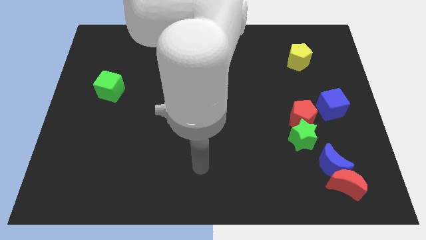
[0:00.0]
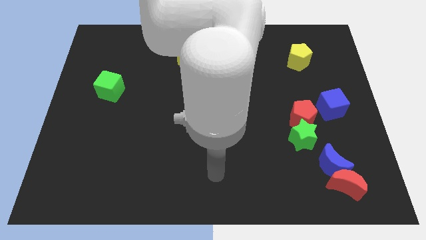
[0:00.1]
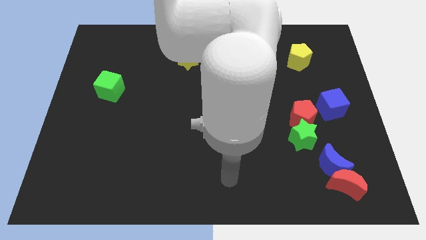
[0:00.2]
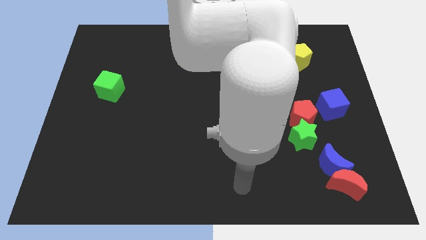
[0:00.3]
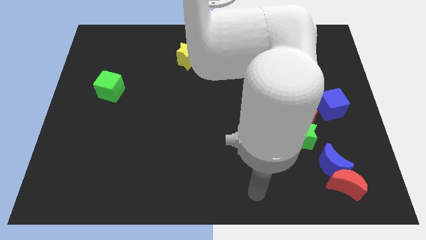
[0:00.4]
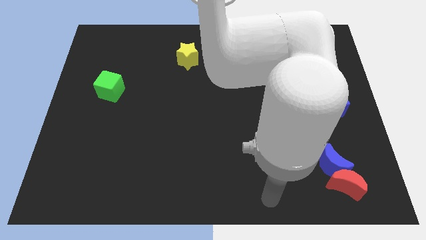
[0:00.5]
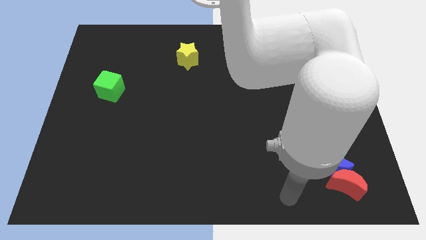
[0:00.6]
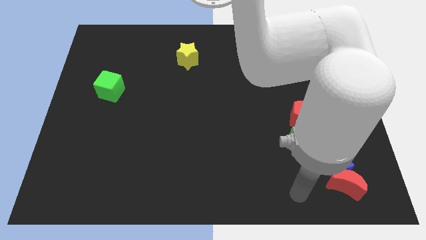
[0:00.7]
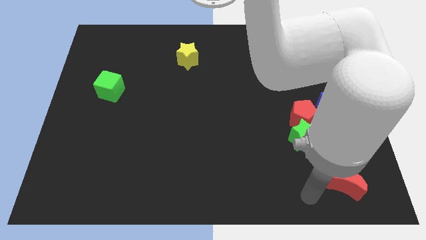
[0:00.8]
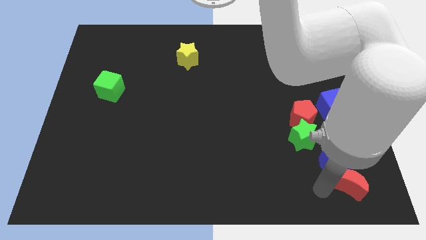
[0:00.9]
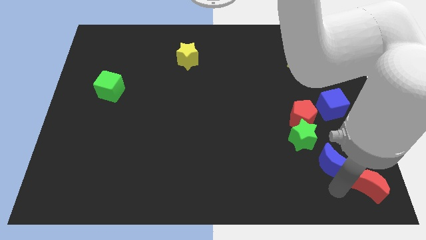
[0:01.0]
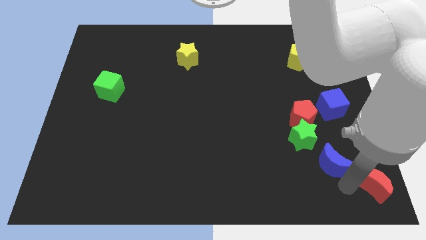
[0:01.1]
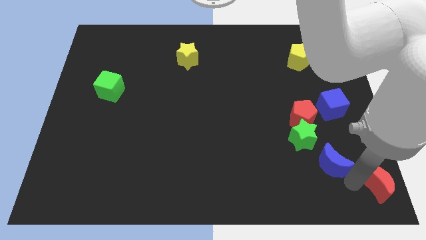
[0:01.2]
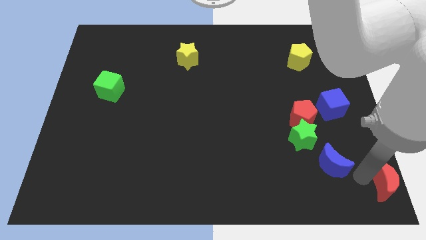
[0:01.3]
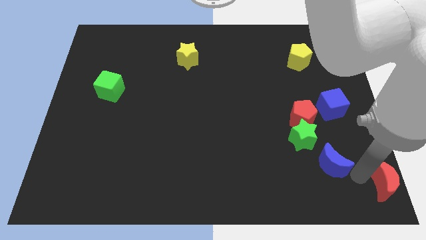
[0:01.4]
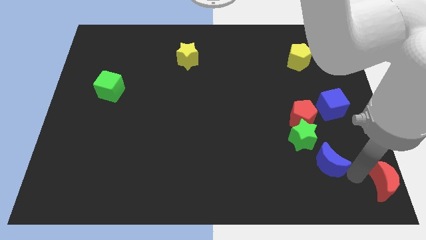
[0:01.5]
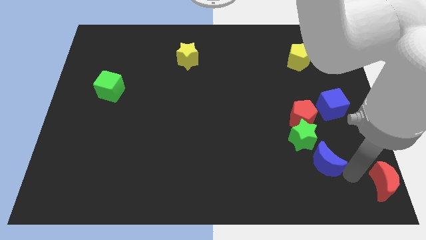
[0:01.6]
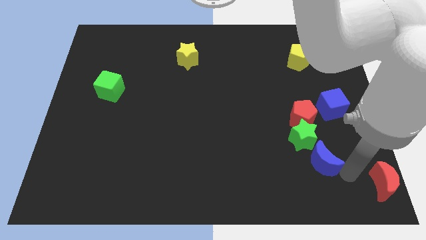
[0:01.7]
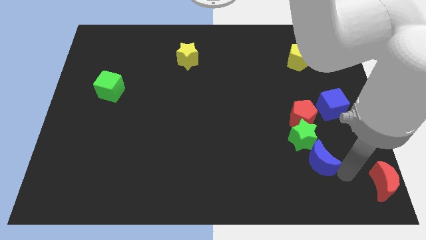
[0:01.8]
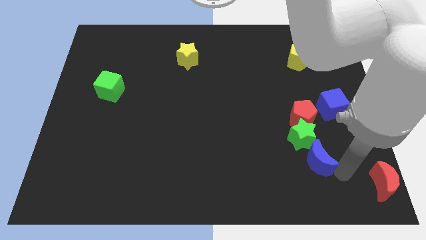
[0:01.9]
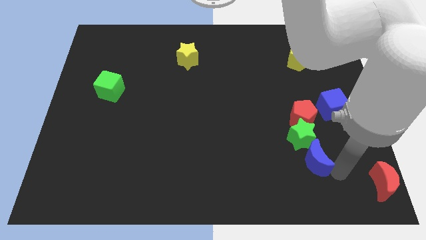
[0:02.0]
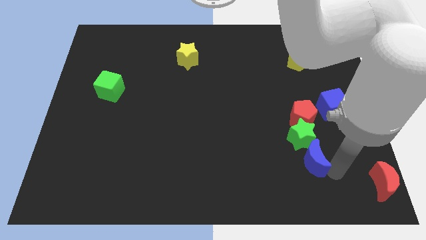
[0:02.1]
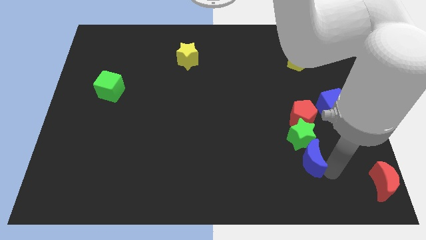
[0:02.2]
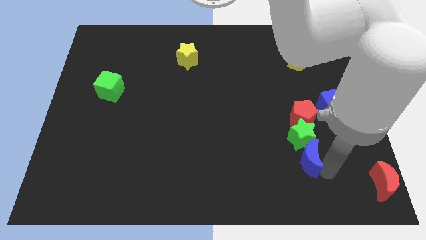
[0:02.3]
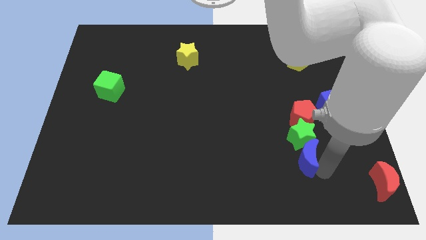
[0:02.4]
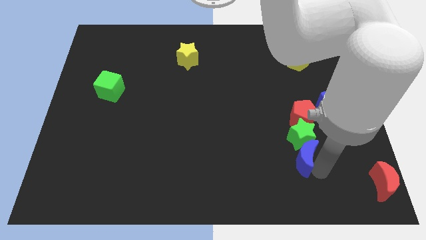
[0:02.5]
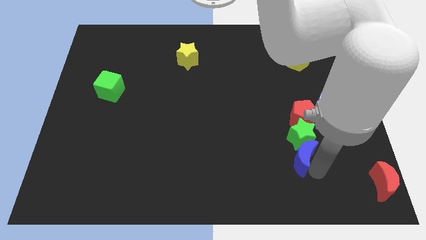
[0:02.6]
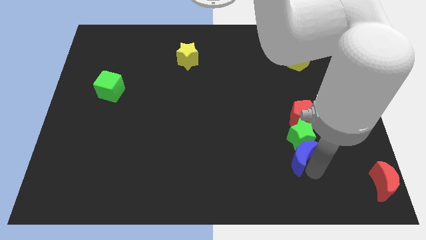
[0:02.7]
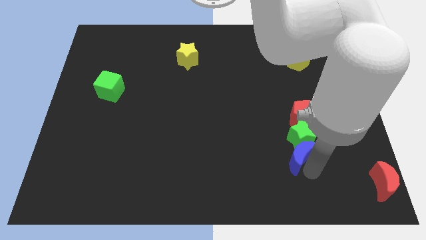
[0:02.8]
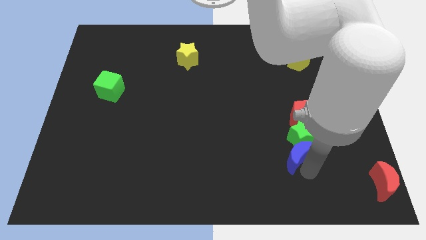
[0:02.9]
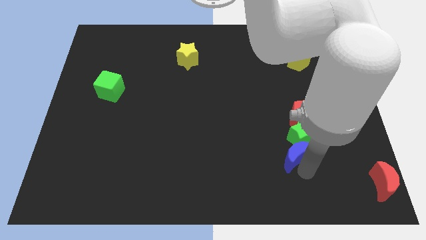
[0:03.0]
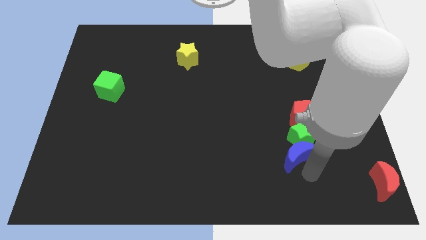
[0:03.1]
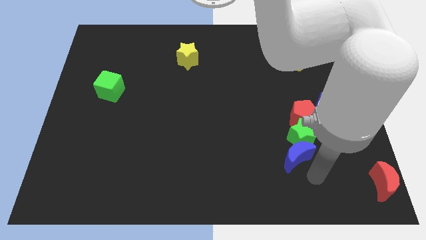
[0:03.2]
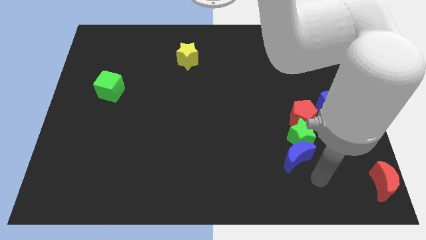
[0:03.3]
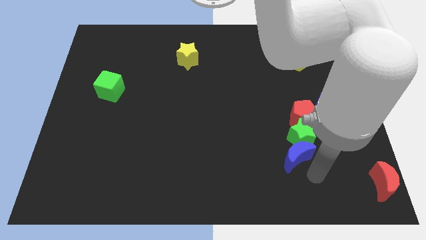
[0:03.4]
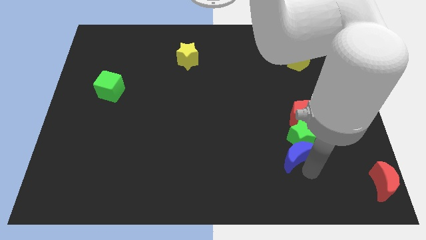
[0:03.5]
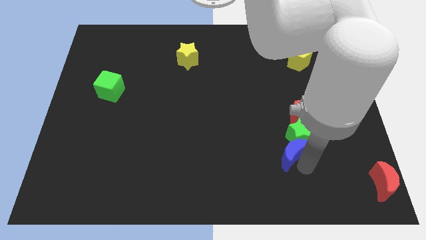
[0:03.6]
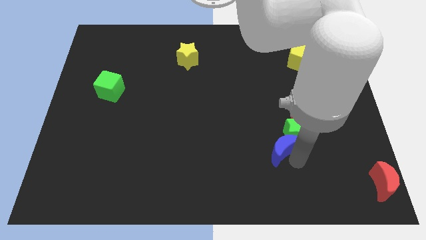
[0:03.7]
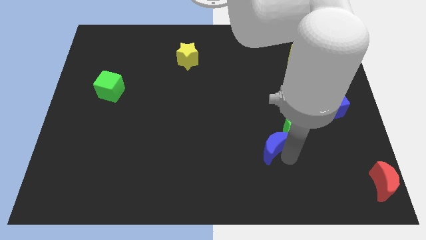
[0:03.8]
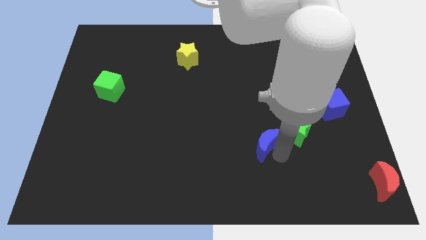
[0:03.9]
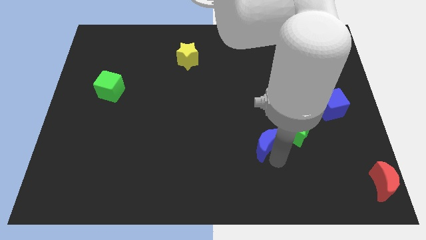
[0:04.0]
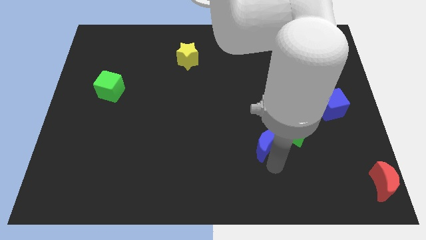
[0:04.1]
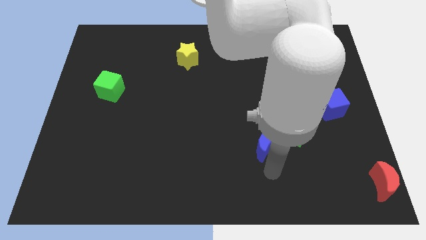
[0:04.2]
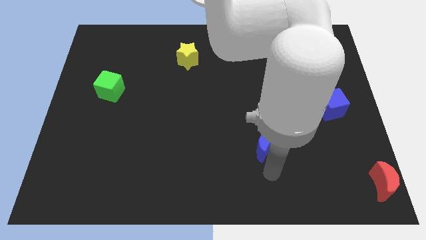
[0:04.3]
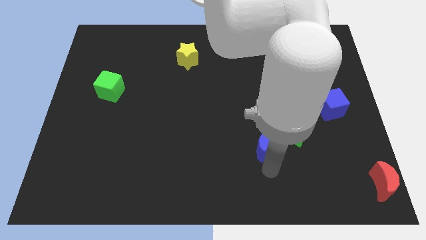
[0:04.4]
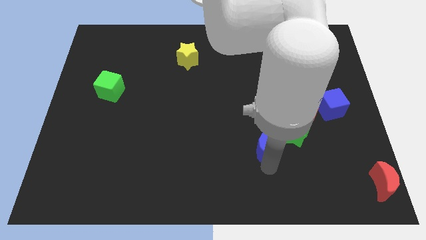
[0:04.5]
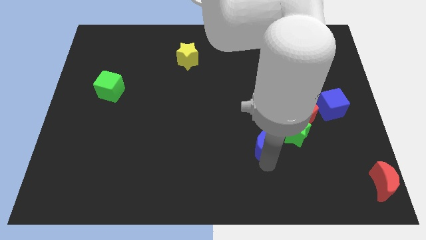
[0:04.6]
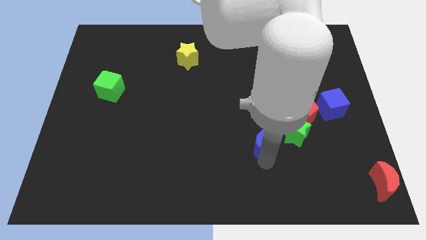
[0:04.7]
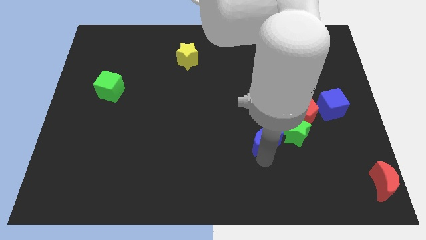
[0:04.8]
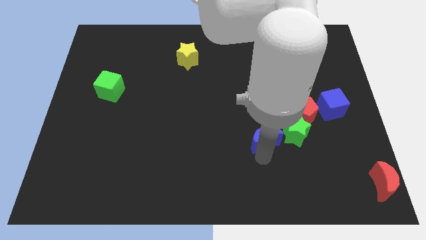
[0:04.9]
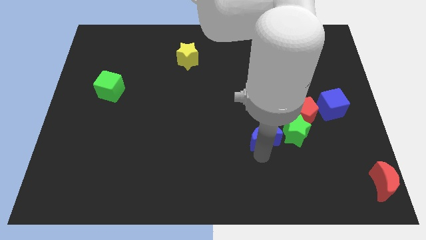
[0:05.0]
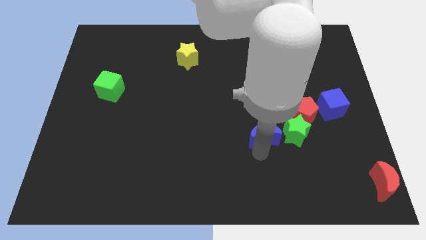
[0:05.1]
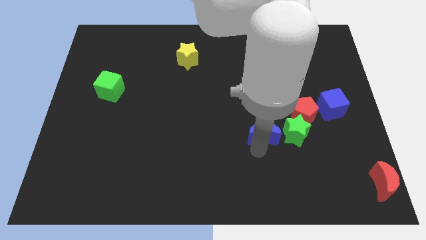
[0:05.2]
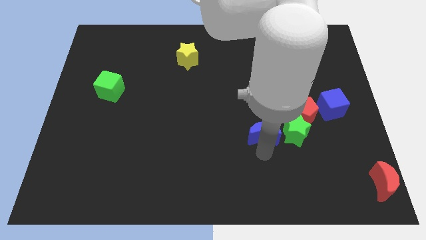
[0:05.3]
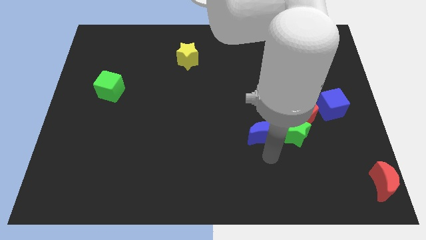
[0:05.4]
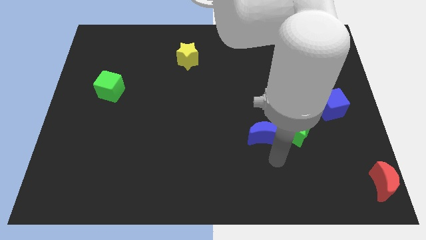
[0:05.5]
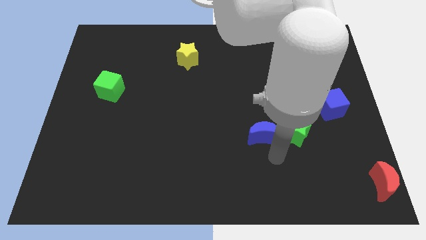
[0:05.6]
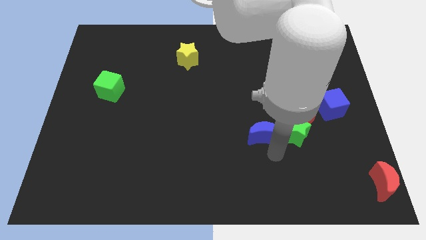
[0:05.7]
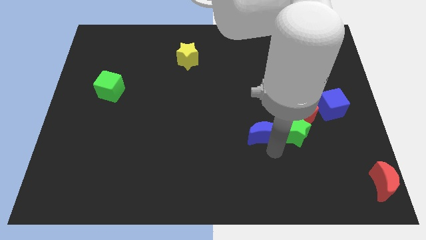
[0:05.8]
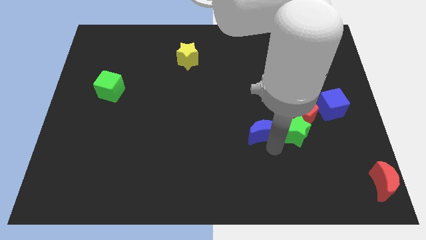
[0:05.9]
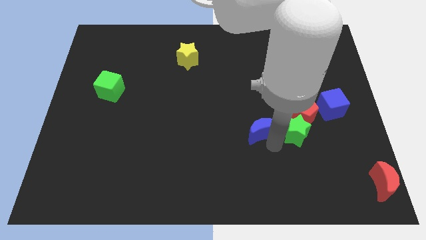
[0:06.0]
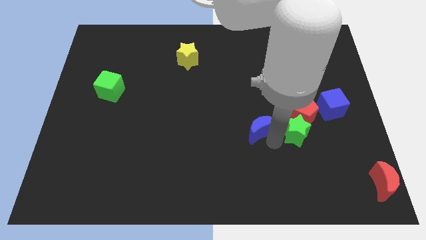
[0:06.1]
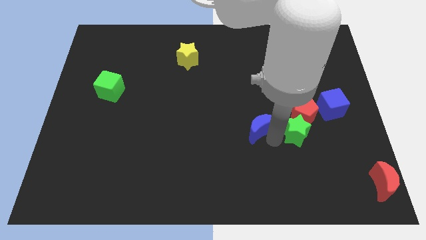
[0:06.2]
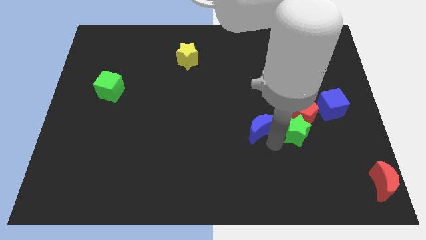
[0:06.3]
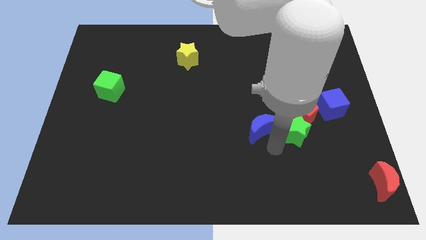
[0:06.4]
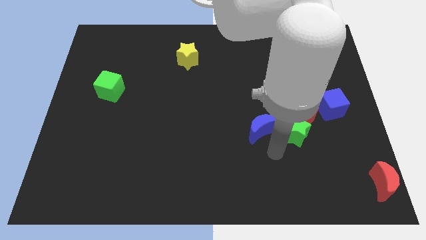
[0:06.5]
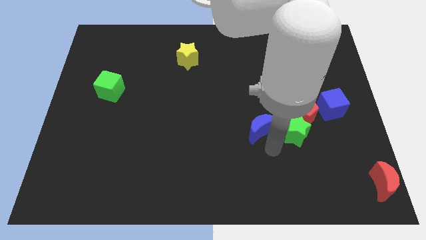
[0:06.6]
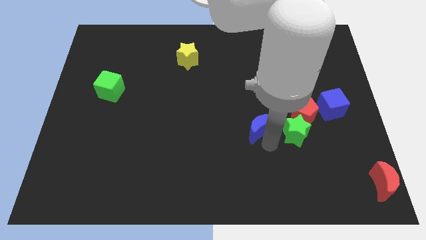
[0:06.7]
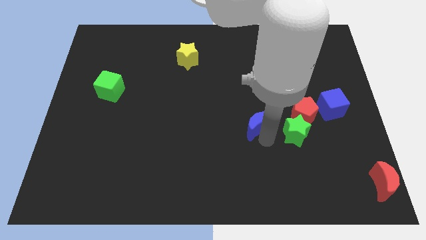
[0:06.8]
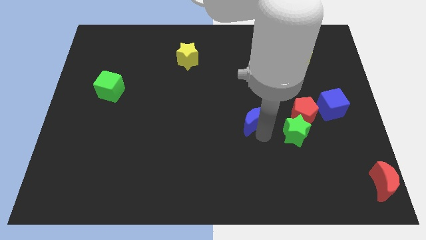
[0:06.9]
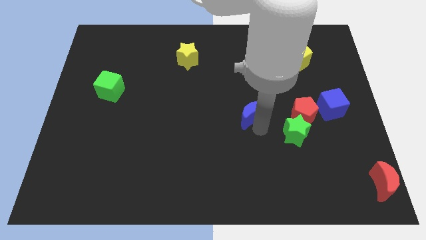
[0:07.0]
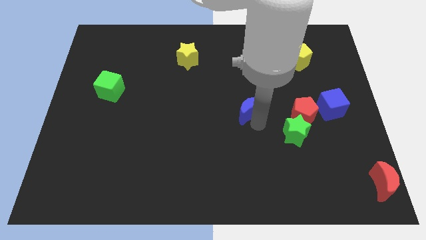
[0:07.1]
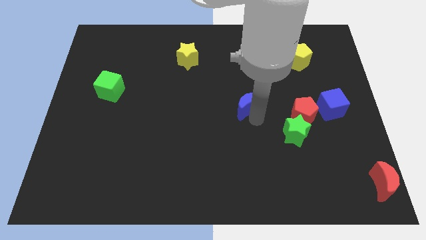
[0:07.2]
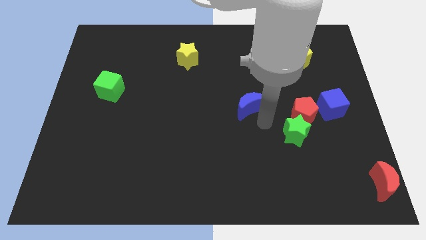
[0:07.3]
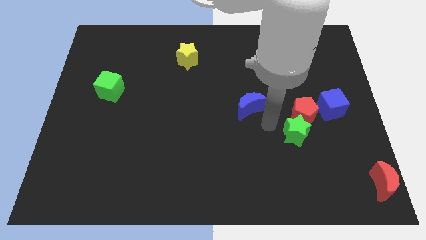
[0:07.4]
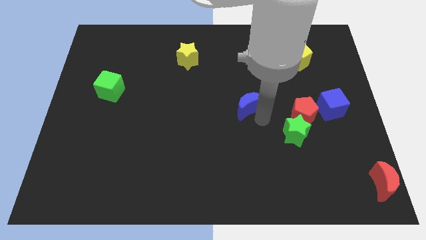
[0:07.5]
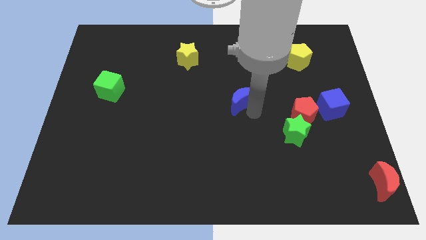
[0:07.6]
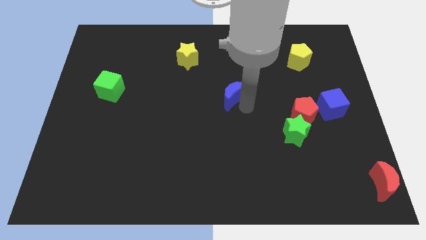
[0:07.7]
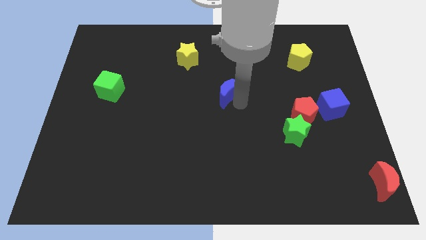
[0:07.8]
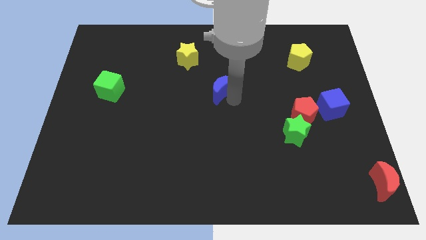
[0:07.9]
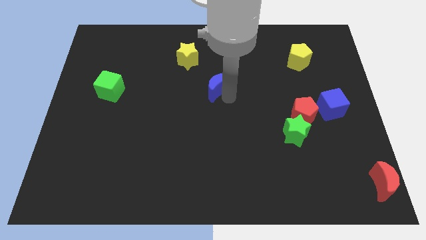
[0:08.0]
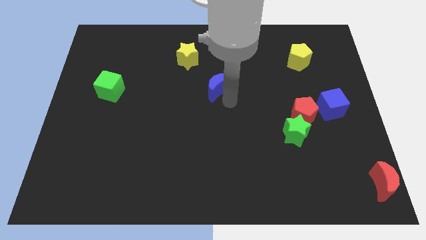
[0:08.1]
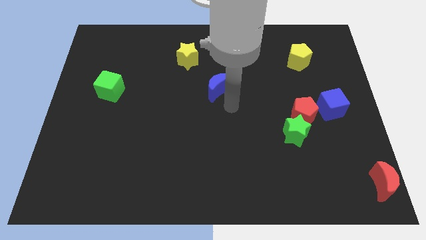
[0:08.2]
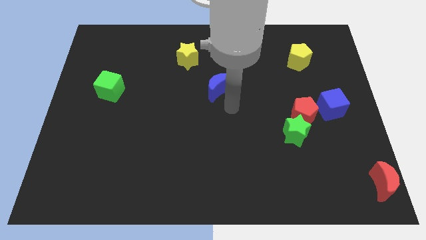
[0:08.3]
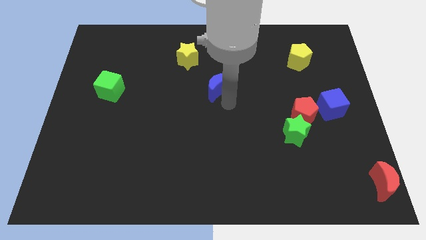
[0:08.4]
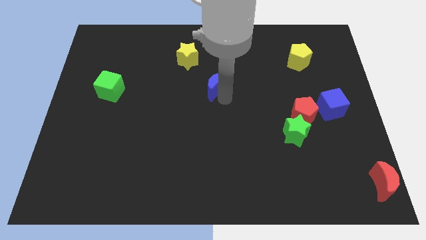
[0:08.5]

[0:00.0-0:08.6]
slide the blue moon diagonally down and to the right of the yellow star
